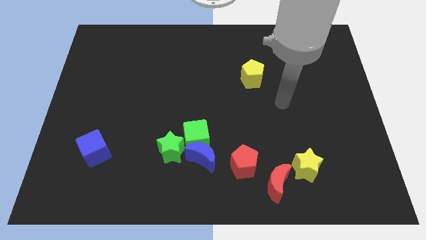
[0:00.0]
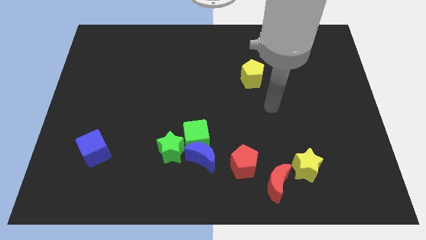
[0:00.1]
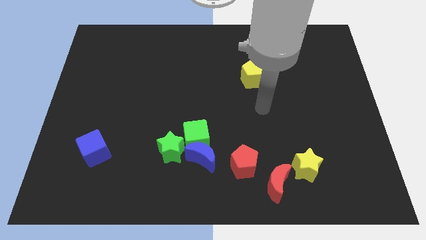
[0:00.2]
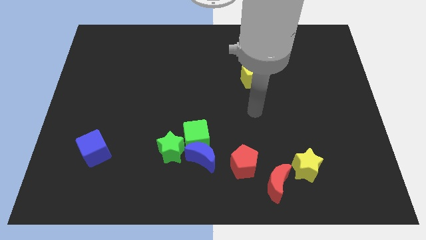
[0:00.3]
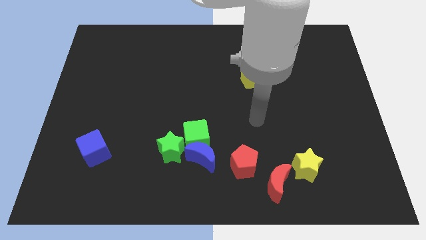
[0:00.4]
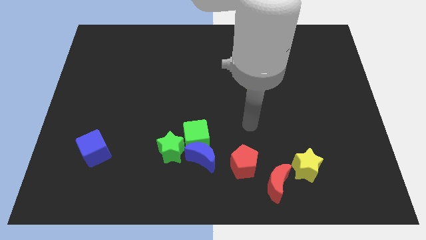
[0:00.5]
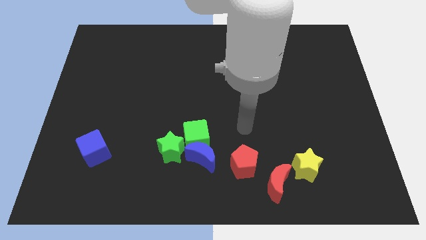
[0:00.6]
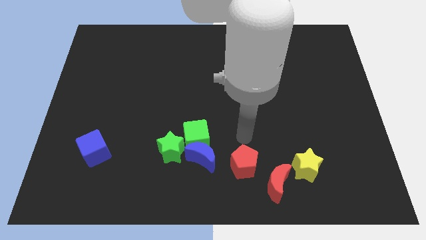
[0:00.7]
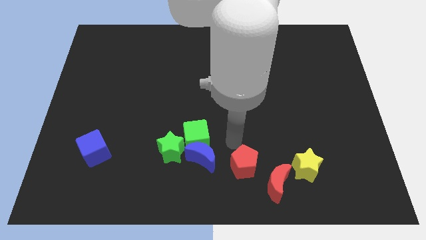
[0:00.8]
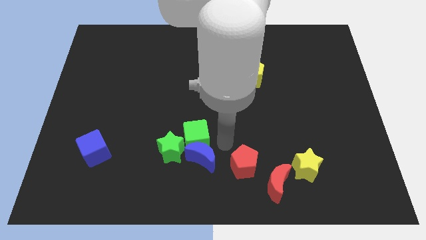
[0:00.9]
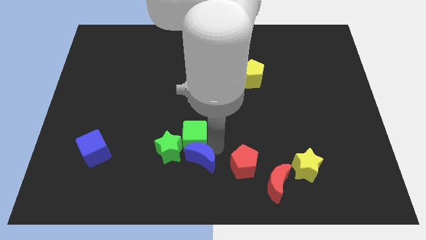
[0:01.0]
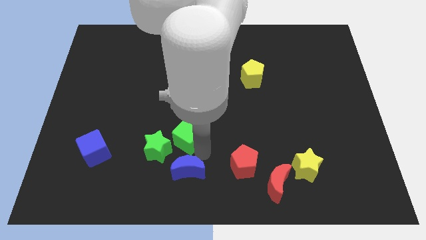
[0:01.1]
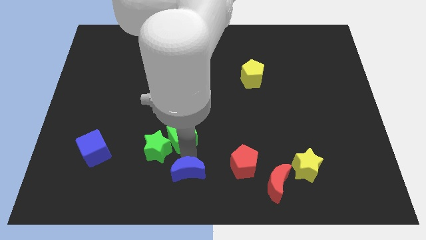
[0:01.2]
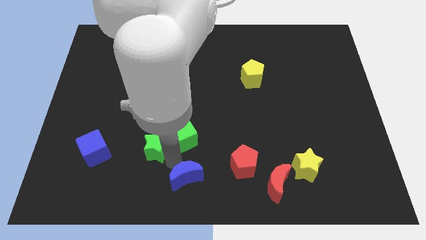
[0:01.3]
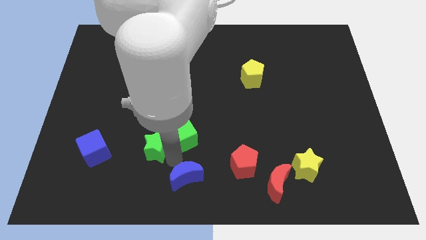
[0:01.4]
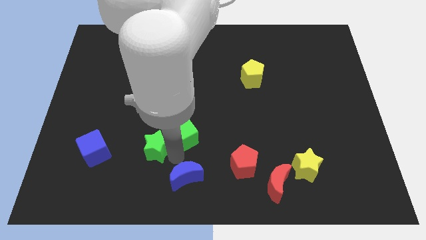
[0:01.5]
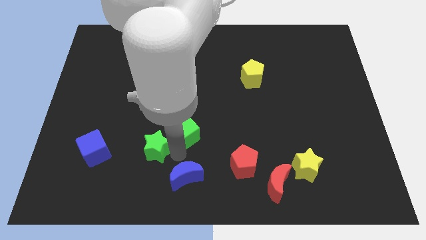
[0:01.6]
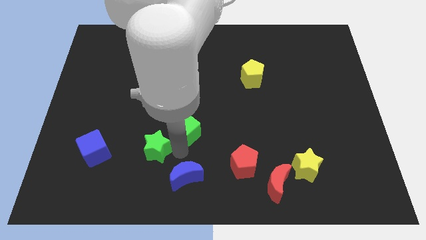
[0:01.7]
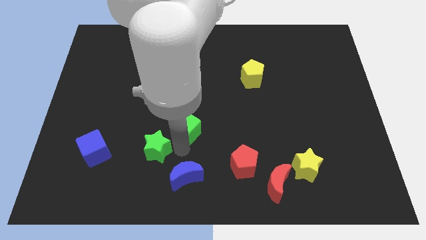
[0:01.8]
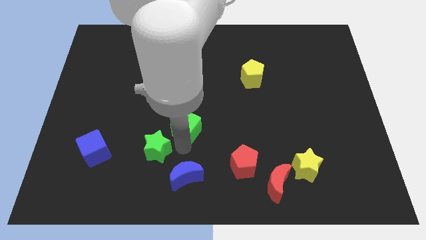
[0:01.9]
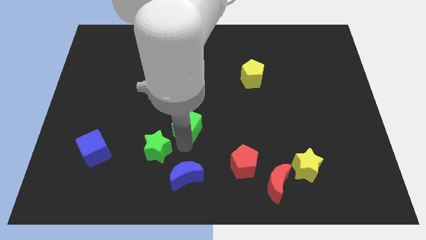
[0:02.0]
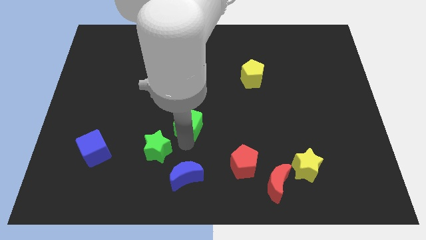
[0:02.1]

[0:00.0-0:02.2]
separate the green cube from the blue moon and green star

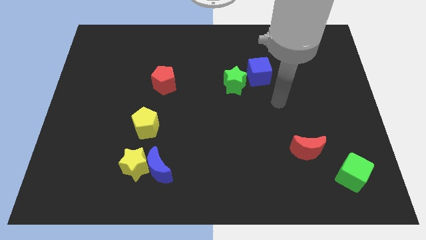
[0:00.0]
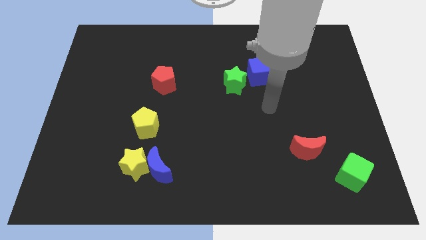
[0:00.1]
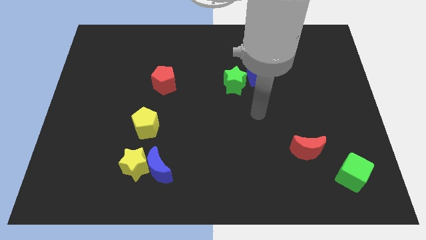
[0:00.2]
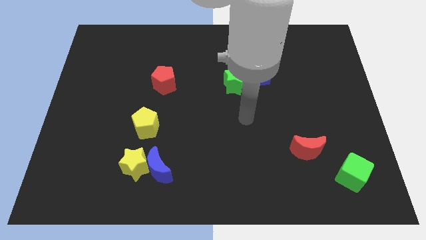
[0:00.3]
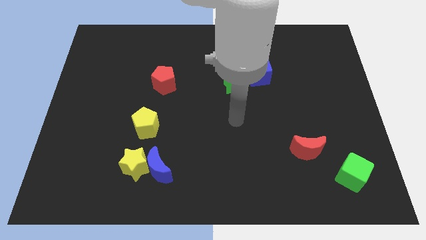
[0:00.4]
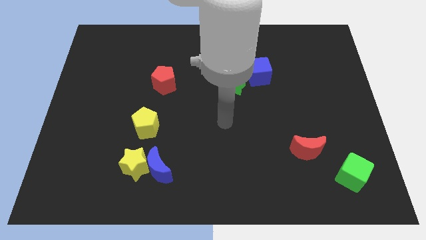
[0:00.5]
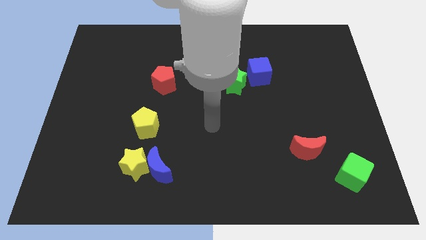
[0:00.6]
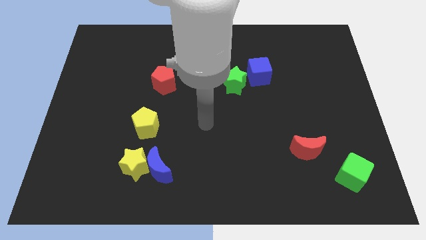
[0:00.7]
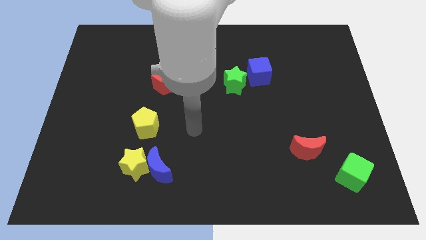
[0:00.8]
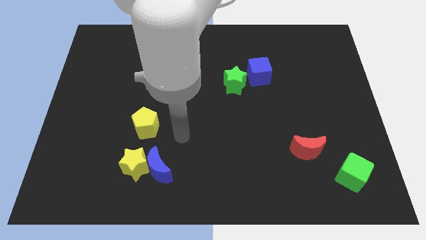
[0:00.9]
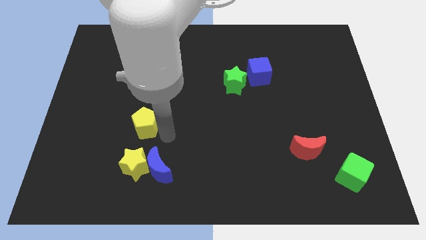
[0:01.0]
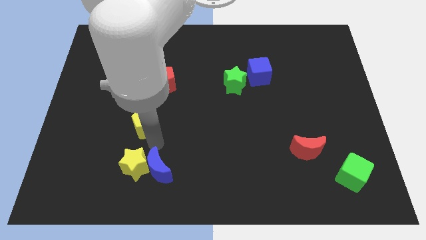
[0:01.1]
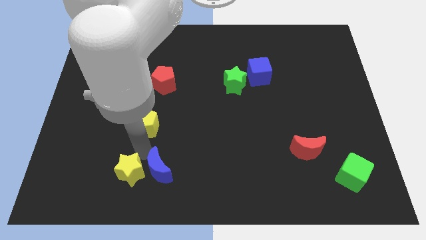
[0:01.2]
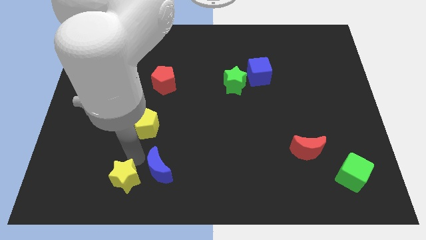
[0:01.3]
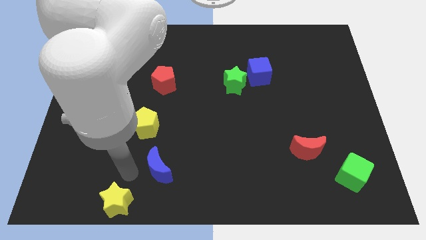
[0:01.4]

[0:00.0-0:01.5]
move the blue moon away from the yellow star

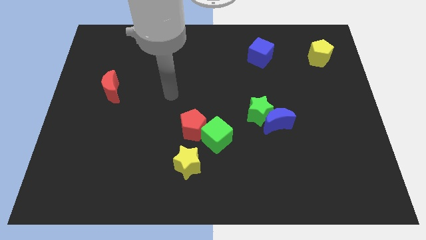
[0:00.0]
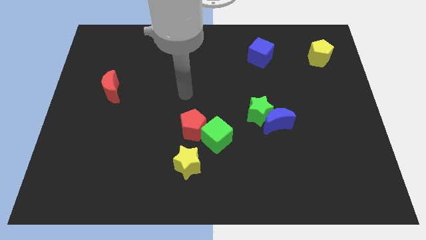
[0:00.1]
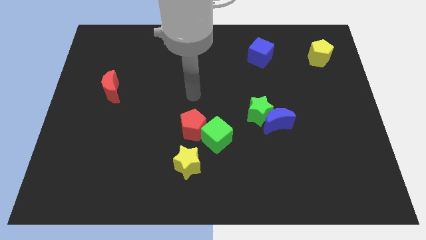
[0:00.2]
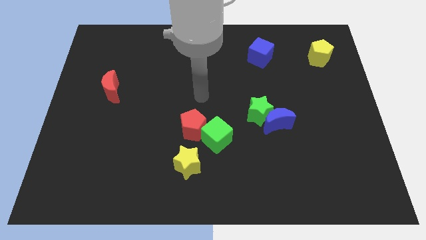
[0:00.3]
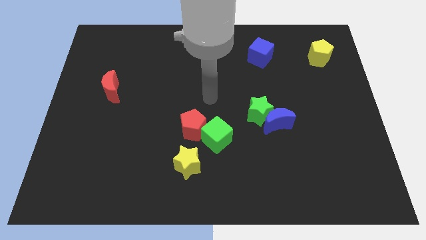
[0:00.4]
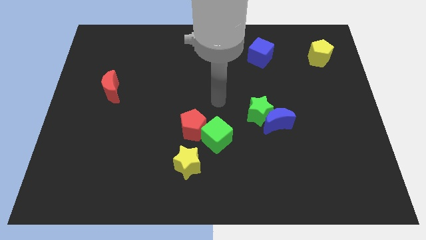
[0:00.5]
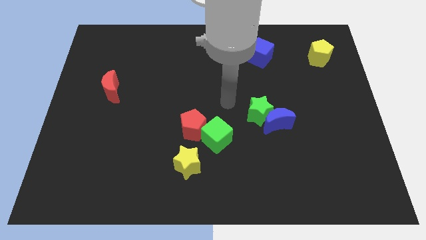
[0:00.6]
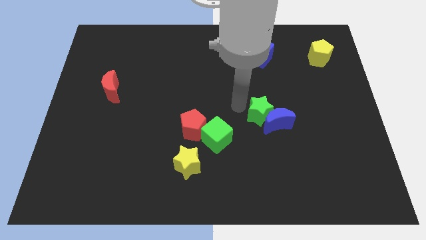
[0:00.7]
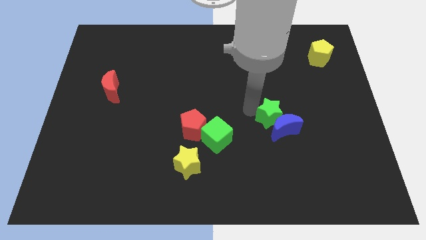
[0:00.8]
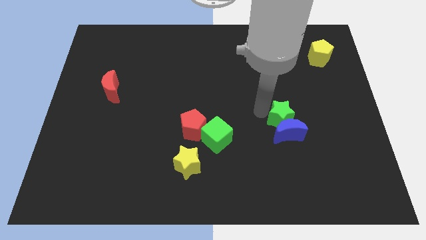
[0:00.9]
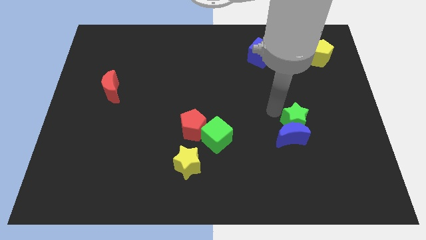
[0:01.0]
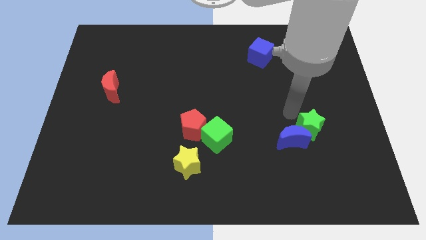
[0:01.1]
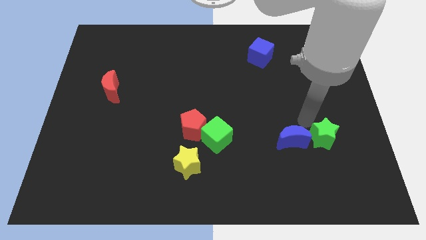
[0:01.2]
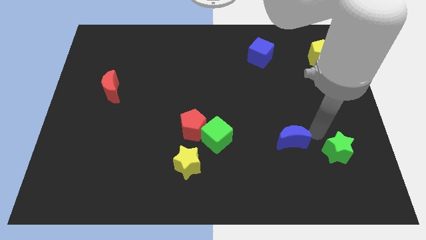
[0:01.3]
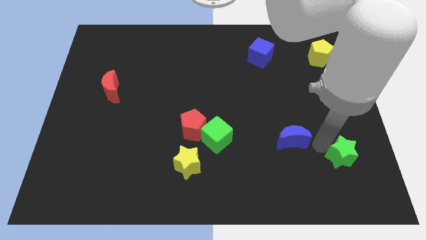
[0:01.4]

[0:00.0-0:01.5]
separate the blue moon from the green star

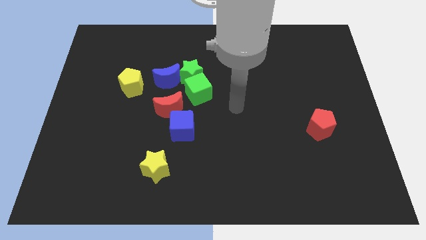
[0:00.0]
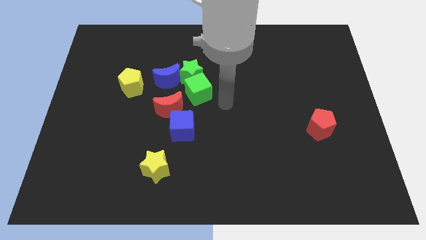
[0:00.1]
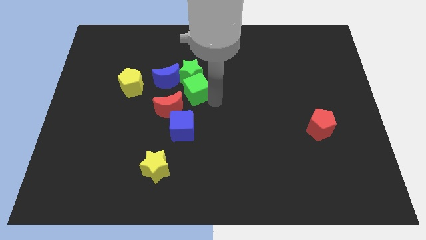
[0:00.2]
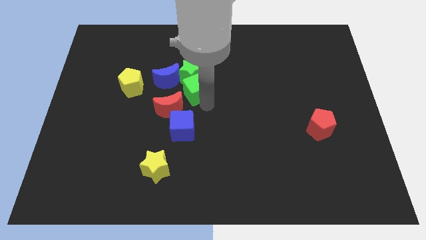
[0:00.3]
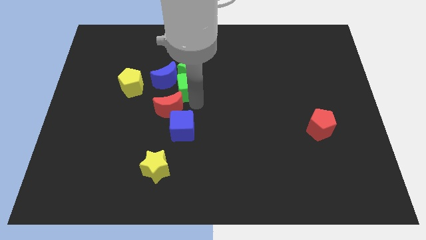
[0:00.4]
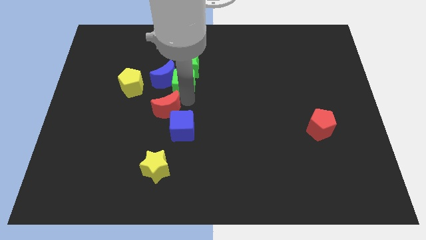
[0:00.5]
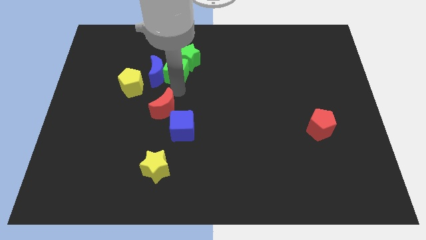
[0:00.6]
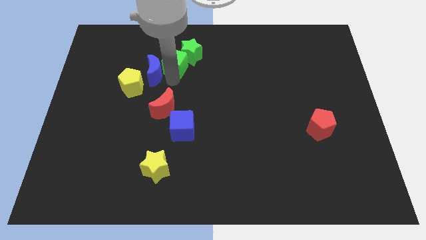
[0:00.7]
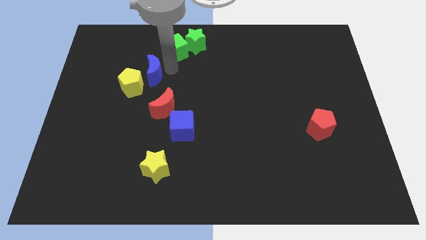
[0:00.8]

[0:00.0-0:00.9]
move the green star away from the green cube and blue moon

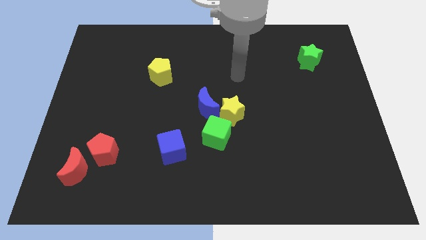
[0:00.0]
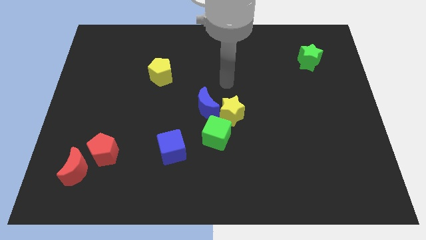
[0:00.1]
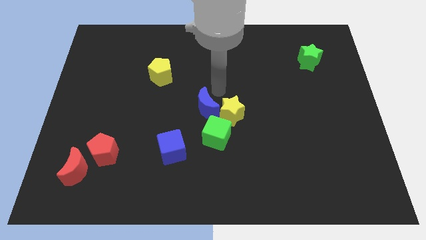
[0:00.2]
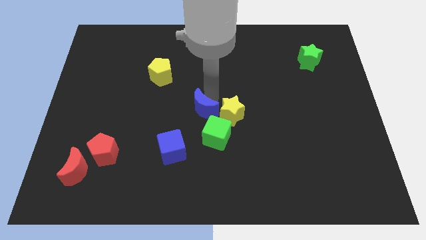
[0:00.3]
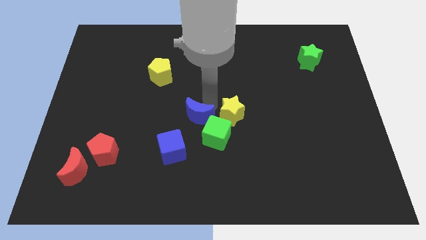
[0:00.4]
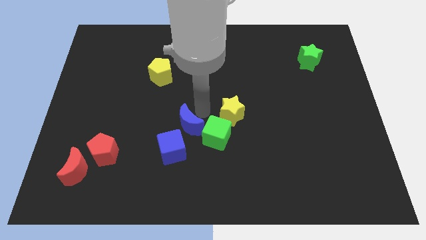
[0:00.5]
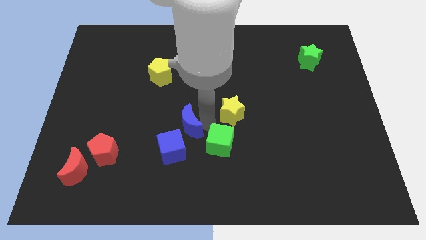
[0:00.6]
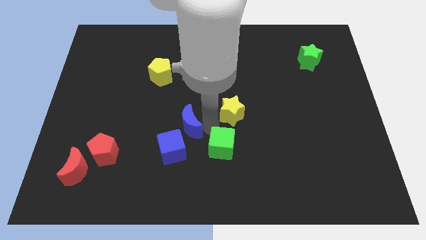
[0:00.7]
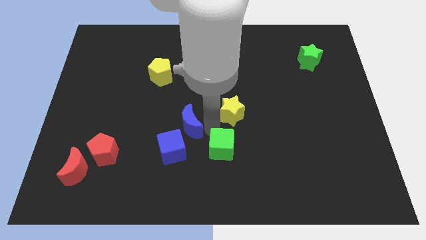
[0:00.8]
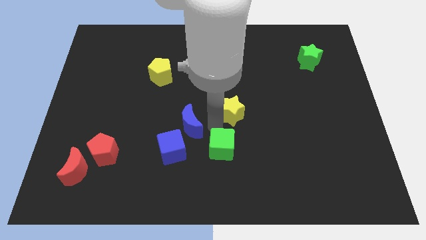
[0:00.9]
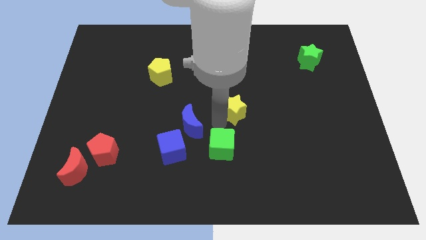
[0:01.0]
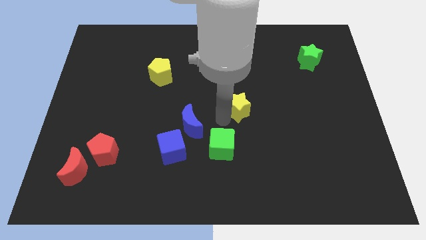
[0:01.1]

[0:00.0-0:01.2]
move the yellow star away from the blue moon and green cube

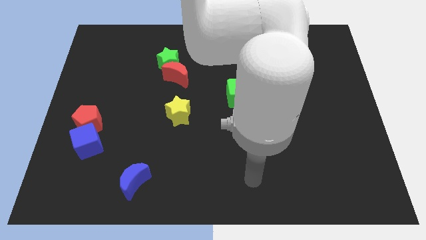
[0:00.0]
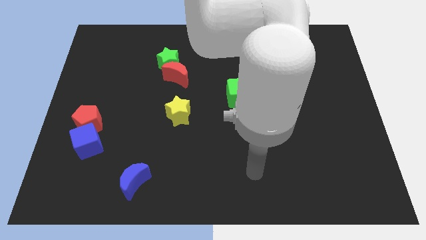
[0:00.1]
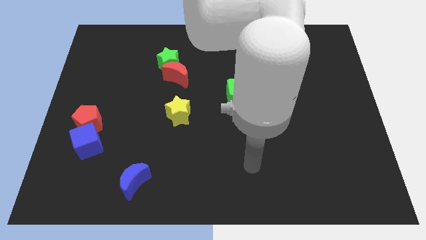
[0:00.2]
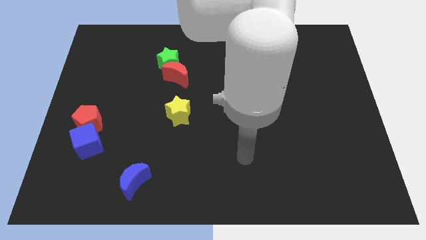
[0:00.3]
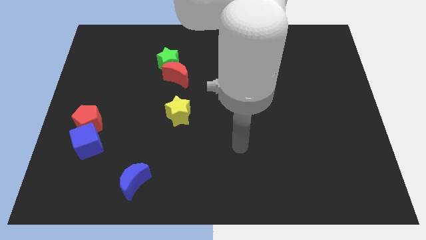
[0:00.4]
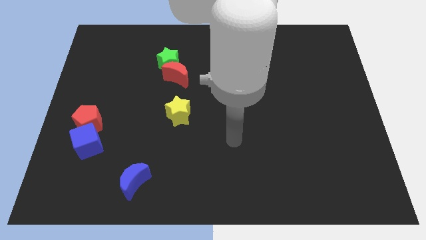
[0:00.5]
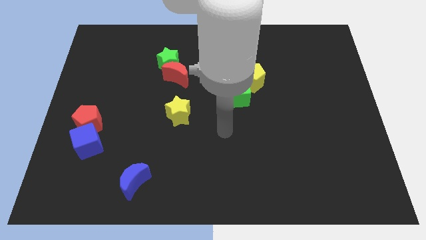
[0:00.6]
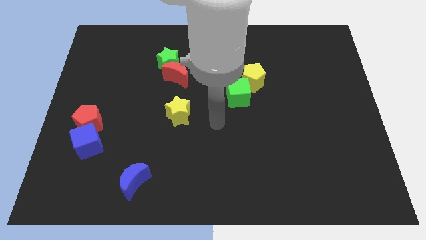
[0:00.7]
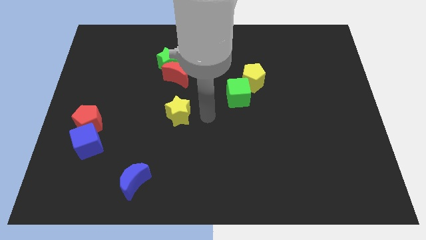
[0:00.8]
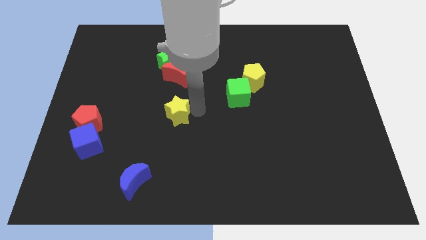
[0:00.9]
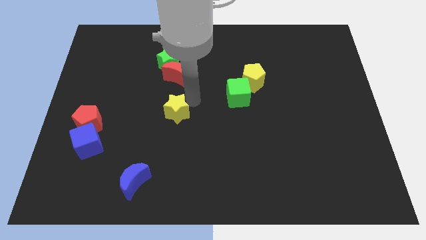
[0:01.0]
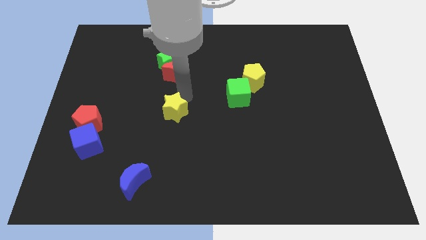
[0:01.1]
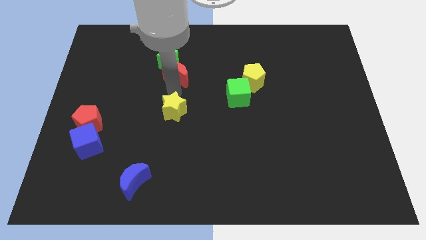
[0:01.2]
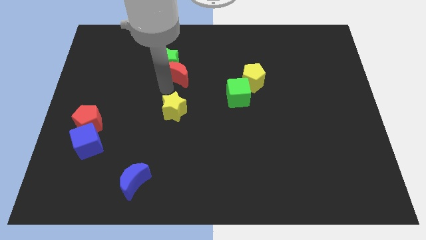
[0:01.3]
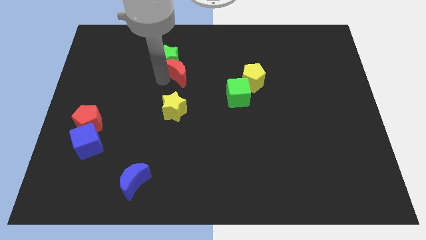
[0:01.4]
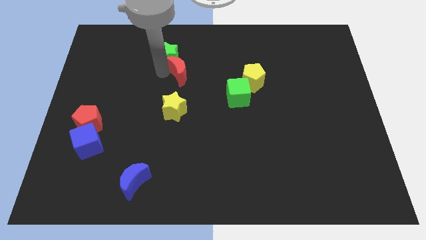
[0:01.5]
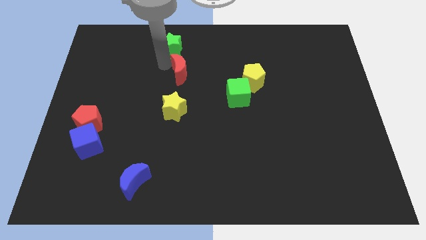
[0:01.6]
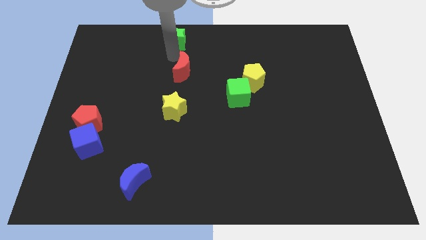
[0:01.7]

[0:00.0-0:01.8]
separate the red moon from the green star

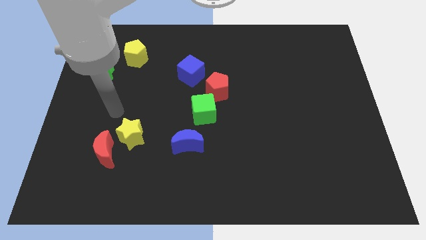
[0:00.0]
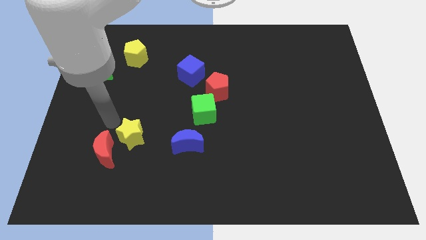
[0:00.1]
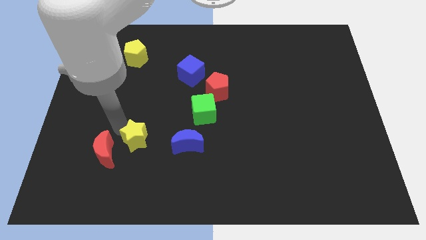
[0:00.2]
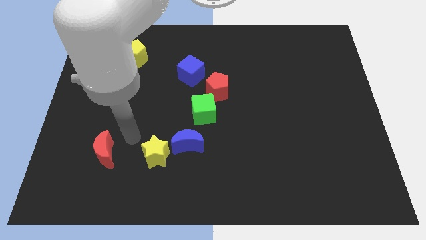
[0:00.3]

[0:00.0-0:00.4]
separate the red moon from the yellow star
